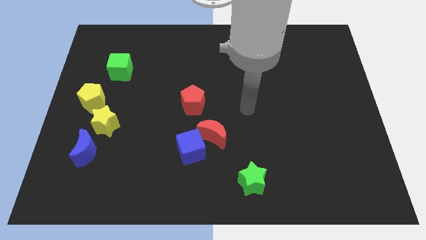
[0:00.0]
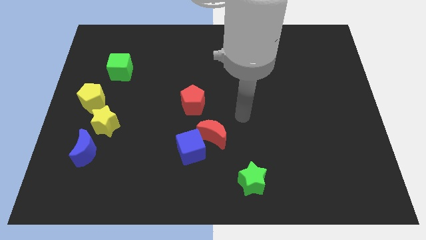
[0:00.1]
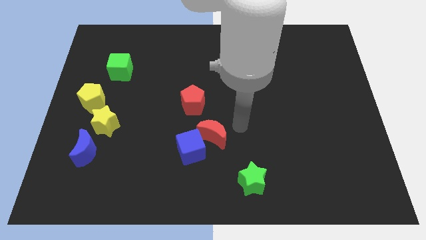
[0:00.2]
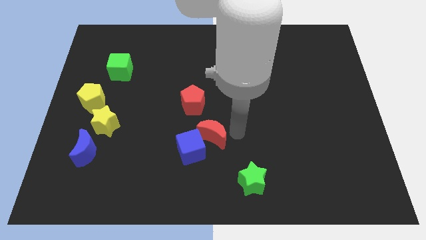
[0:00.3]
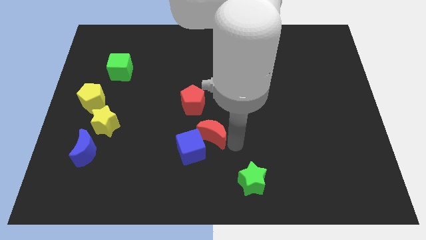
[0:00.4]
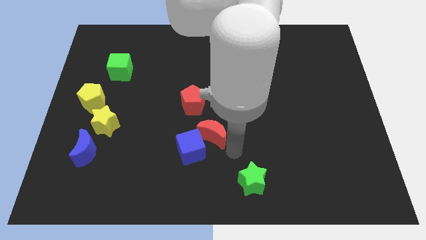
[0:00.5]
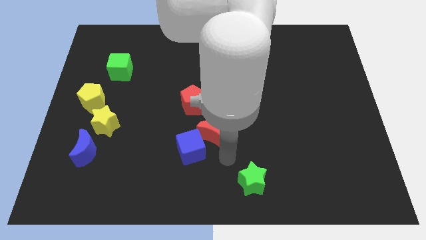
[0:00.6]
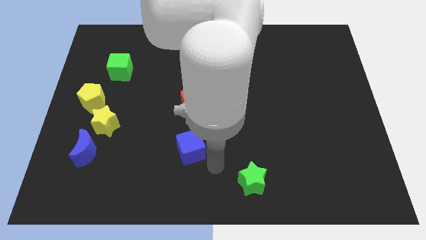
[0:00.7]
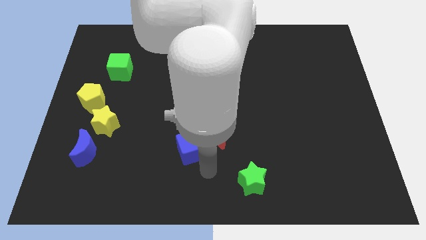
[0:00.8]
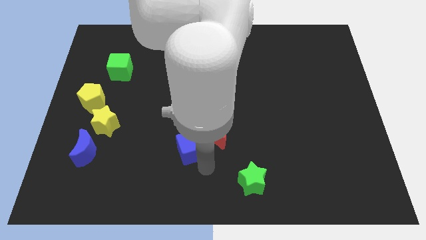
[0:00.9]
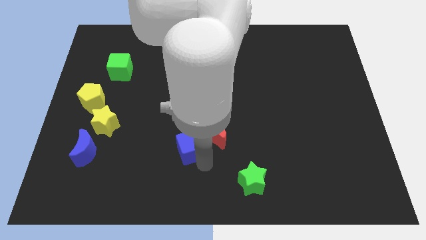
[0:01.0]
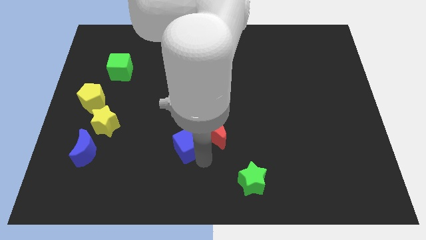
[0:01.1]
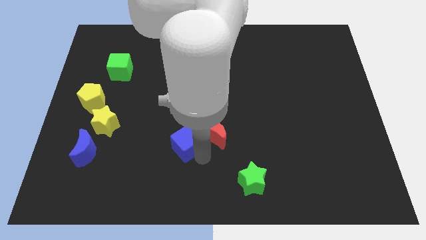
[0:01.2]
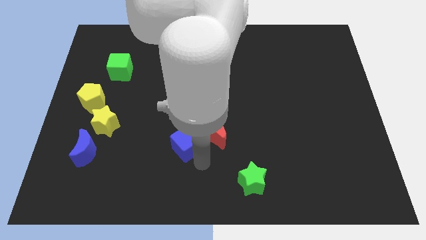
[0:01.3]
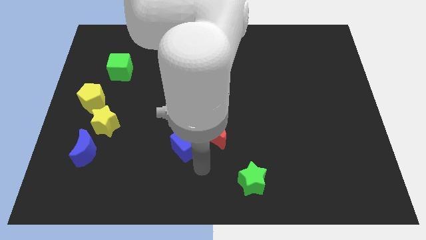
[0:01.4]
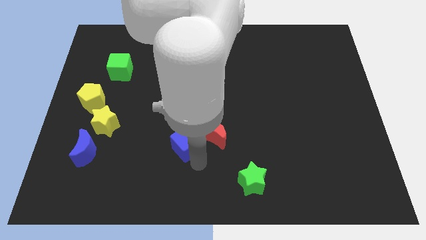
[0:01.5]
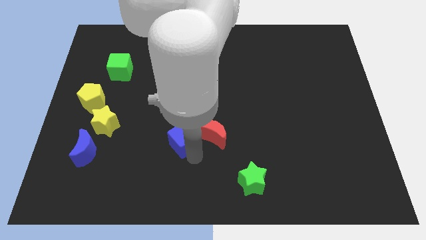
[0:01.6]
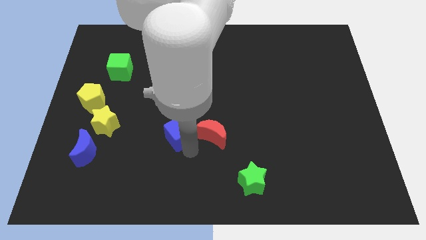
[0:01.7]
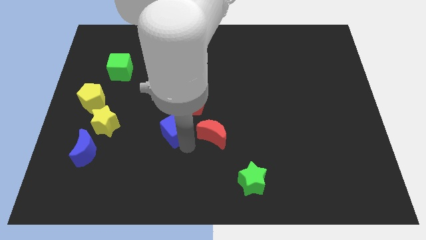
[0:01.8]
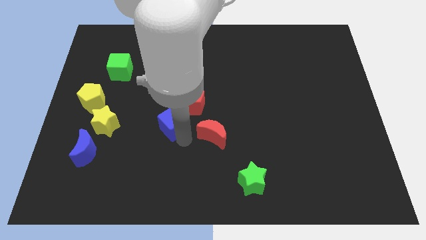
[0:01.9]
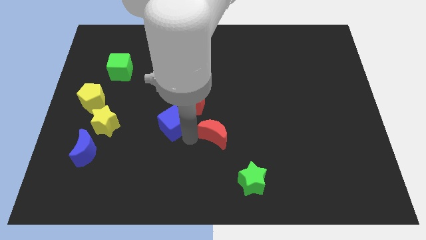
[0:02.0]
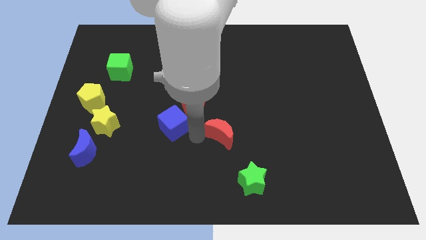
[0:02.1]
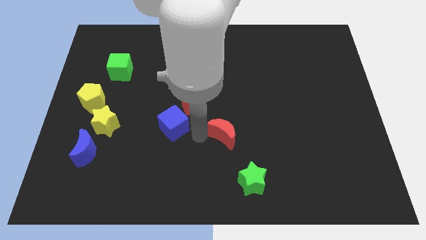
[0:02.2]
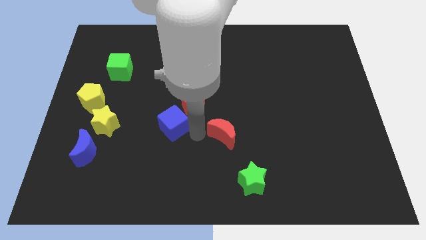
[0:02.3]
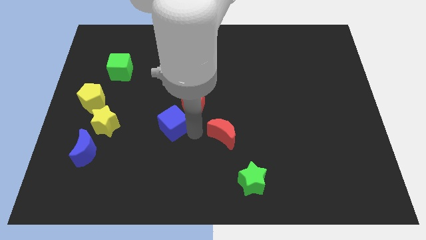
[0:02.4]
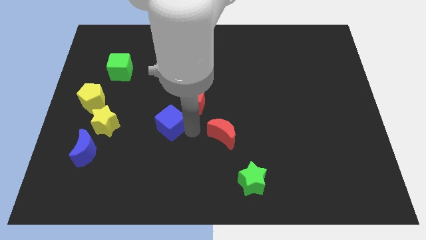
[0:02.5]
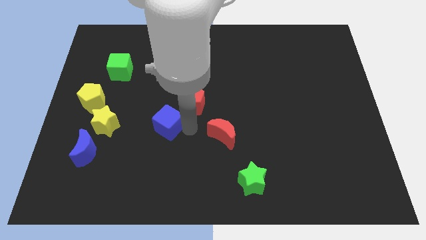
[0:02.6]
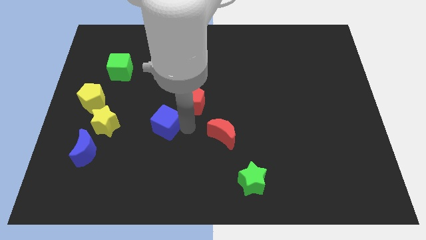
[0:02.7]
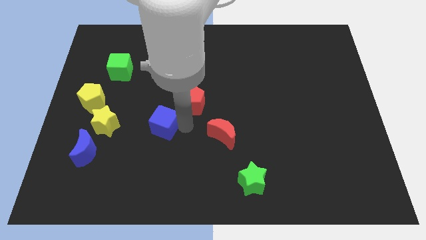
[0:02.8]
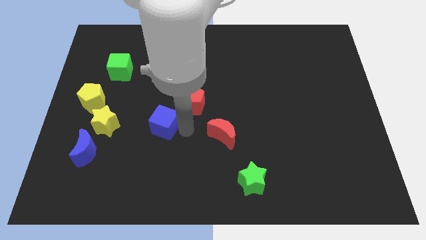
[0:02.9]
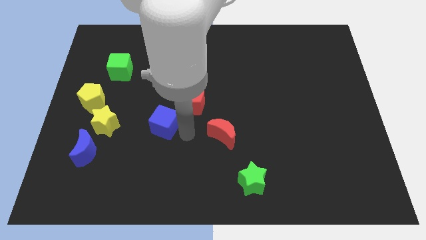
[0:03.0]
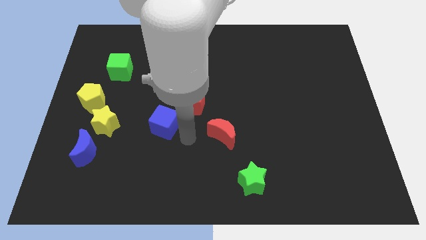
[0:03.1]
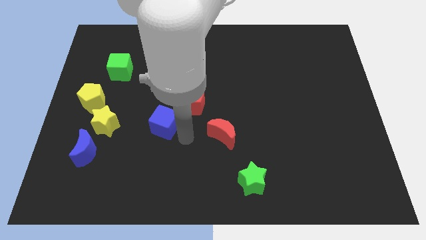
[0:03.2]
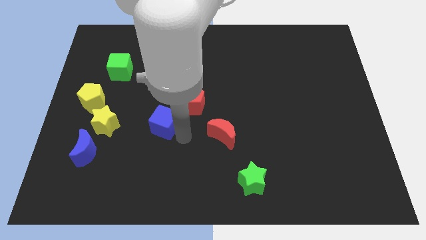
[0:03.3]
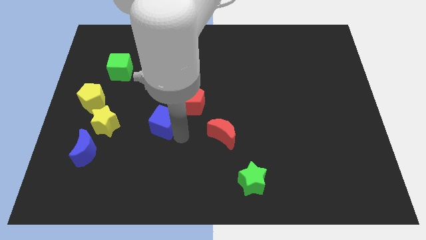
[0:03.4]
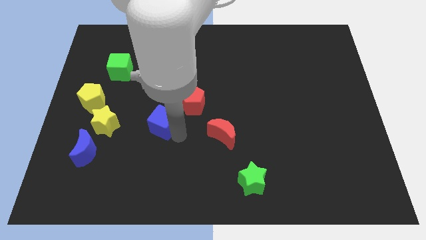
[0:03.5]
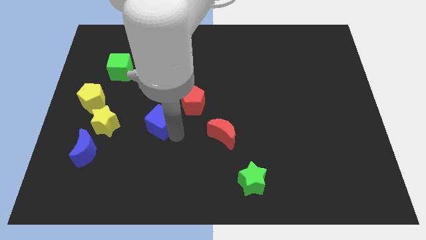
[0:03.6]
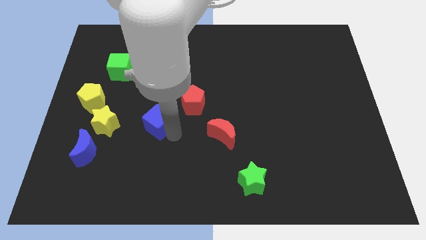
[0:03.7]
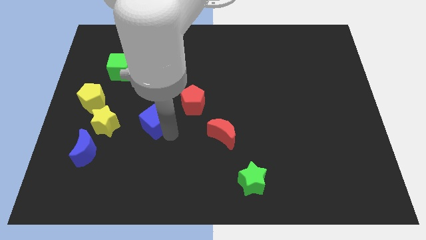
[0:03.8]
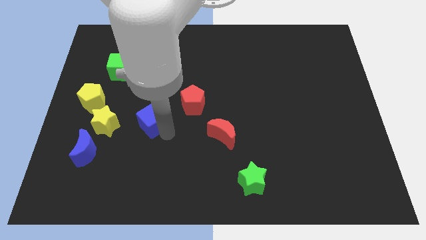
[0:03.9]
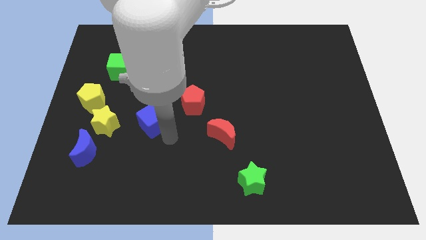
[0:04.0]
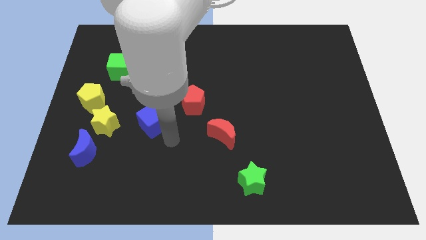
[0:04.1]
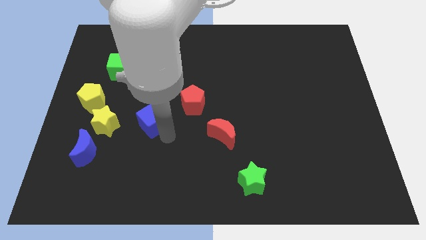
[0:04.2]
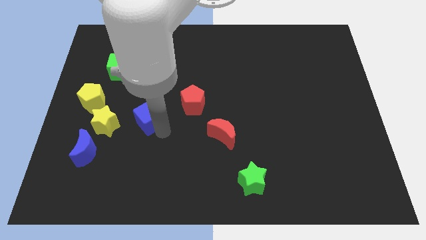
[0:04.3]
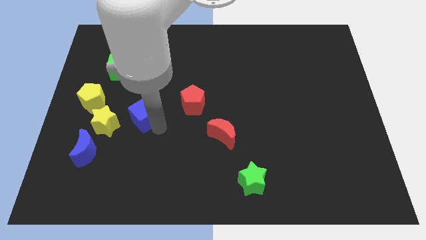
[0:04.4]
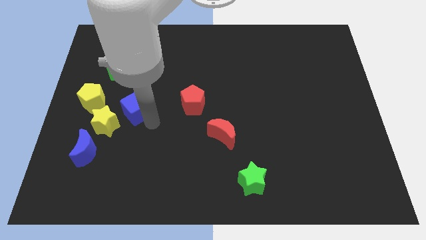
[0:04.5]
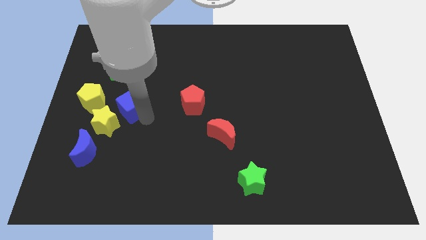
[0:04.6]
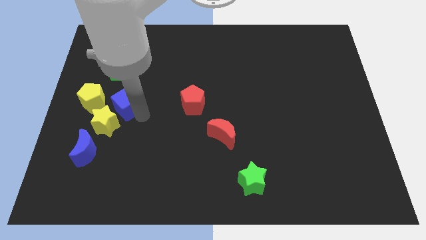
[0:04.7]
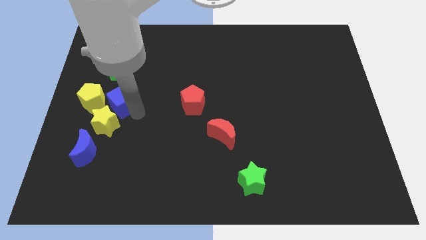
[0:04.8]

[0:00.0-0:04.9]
move the blue cube upwards and to the left

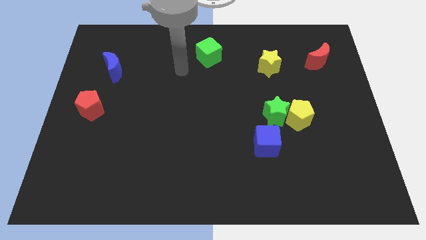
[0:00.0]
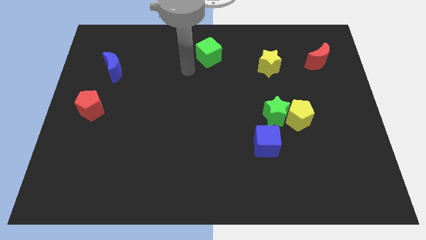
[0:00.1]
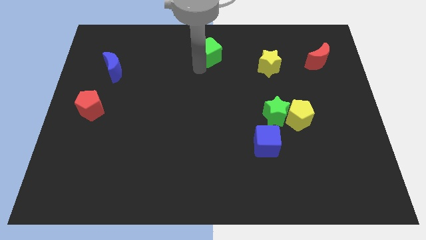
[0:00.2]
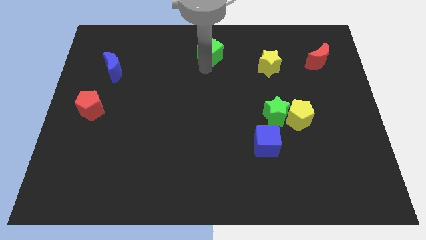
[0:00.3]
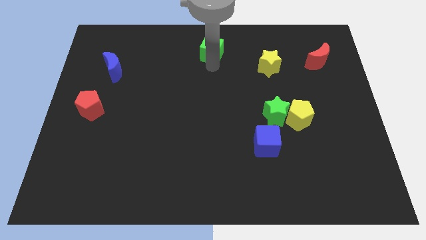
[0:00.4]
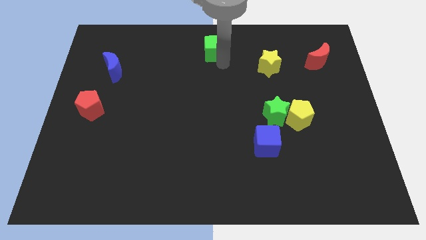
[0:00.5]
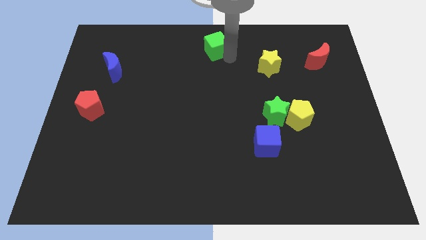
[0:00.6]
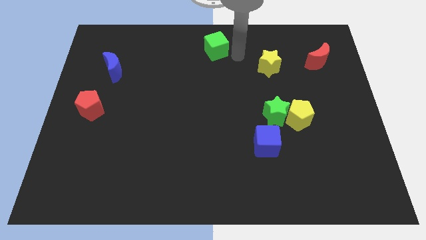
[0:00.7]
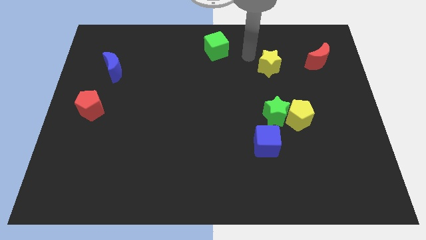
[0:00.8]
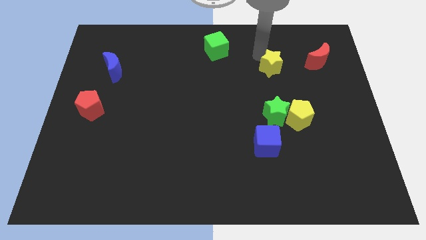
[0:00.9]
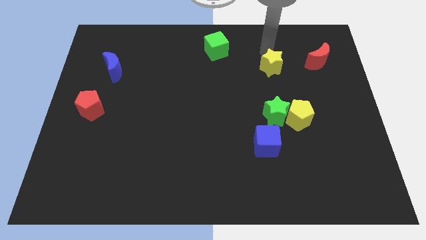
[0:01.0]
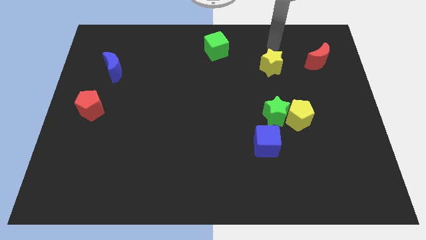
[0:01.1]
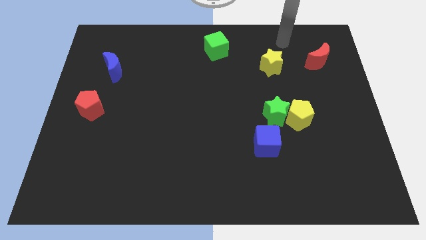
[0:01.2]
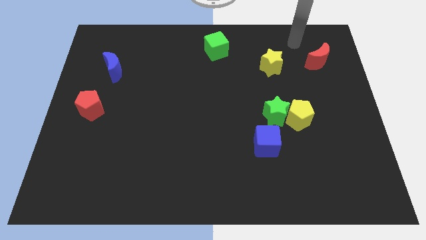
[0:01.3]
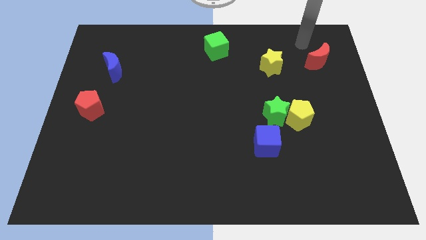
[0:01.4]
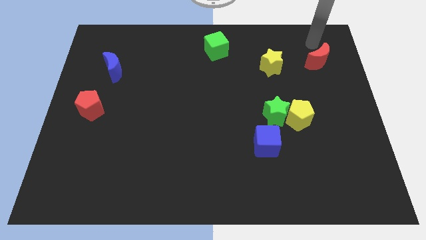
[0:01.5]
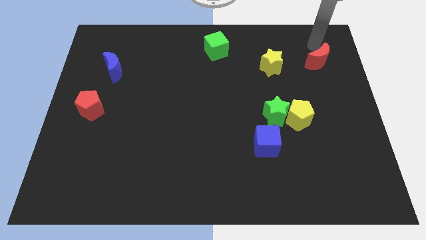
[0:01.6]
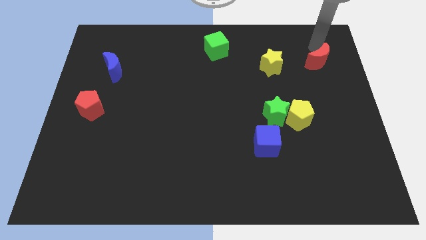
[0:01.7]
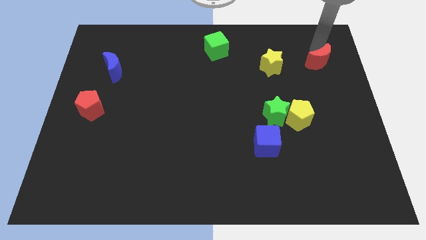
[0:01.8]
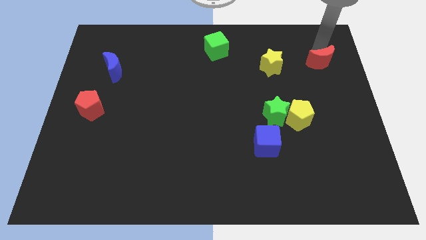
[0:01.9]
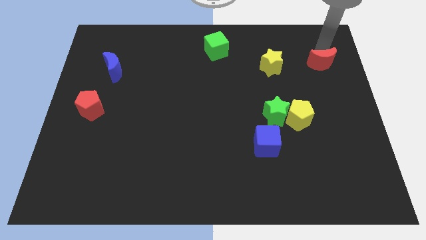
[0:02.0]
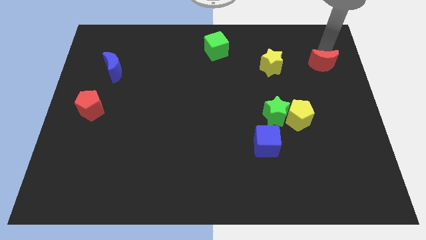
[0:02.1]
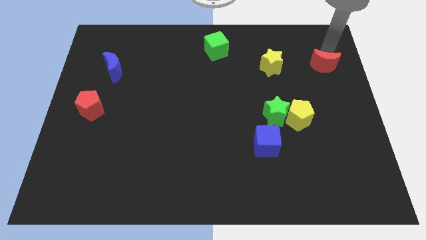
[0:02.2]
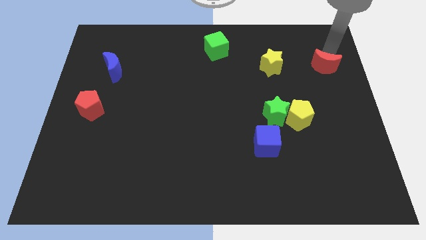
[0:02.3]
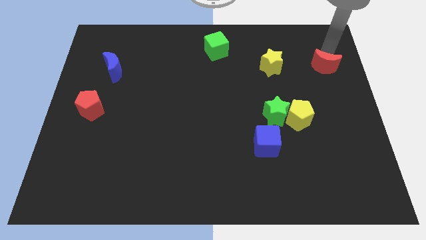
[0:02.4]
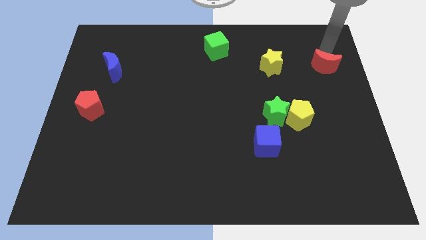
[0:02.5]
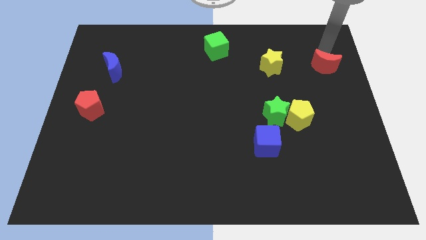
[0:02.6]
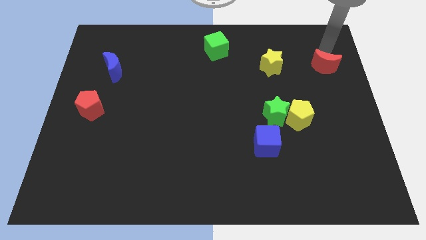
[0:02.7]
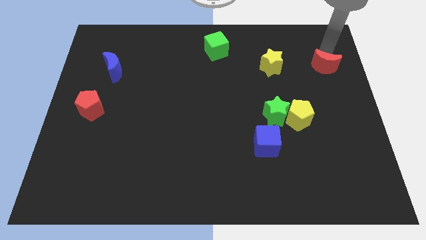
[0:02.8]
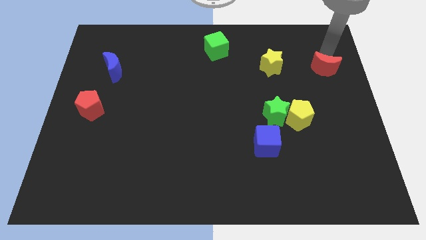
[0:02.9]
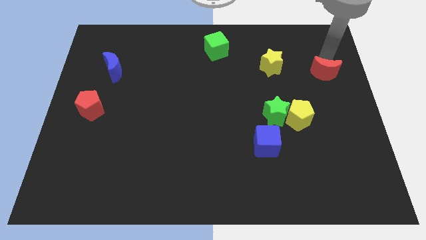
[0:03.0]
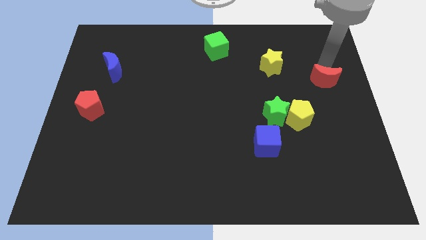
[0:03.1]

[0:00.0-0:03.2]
push the red moon a bit down
